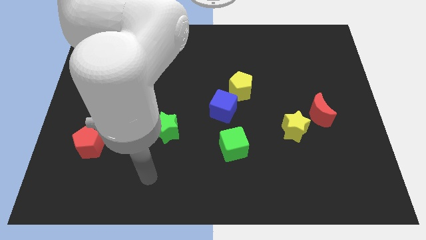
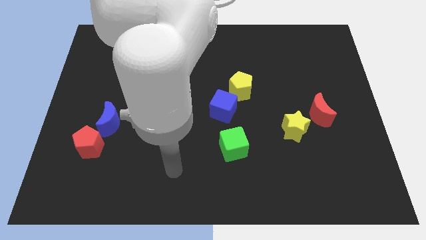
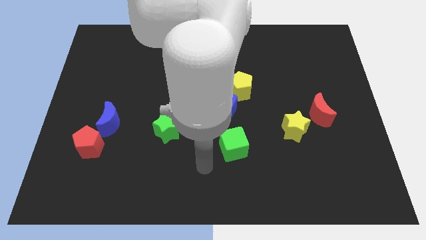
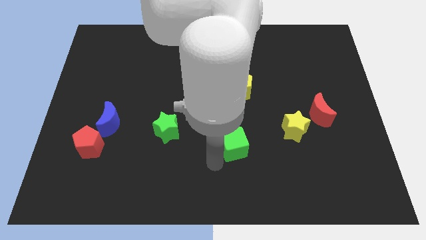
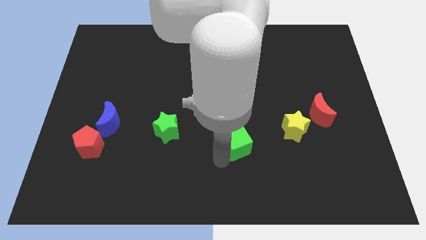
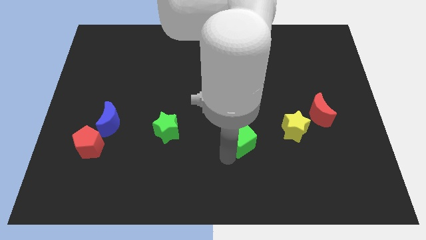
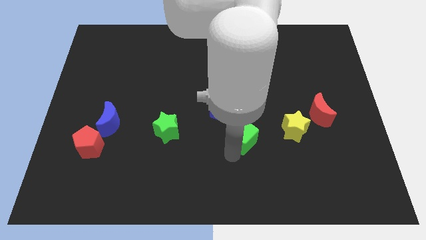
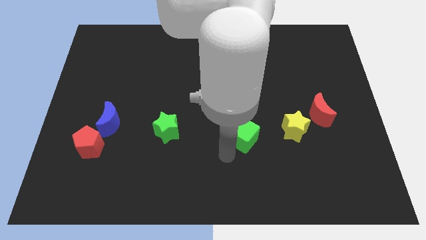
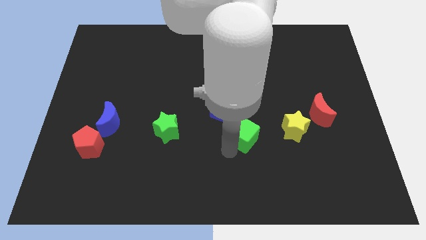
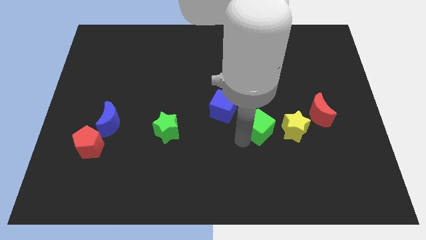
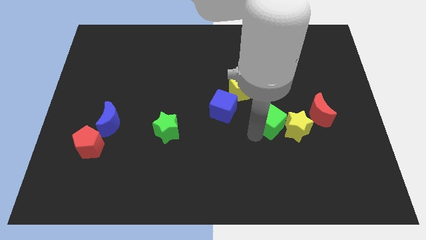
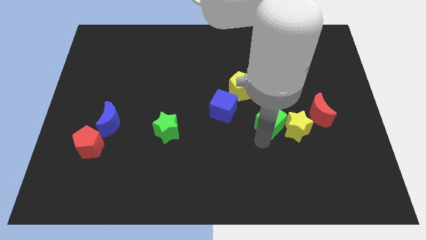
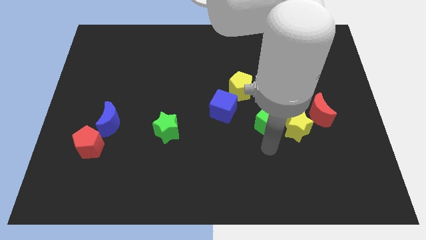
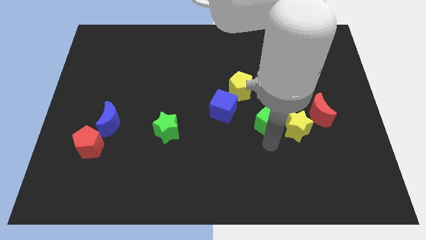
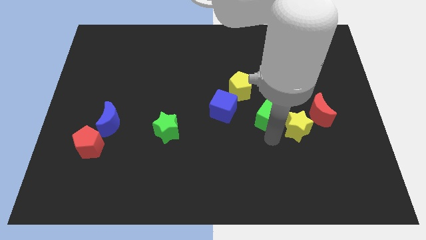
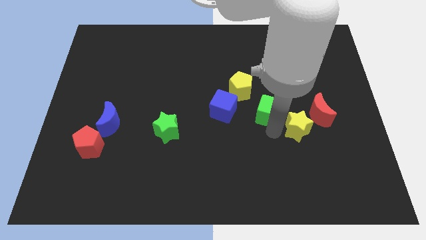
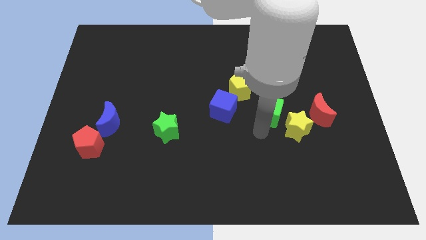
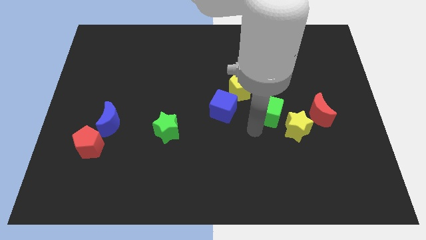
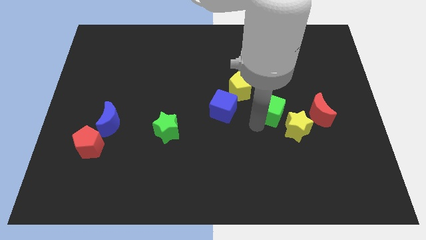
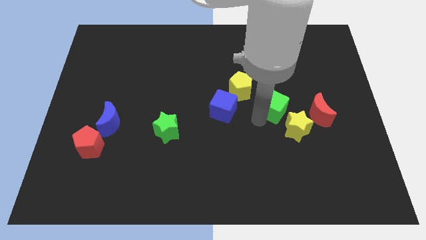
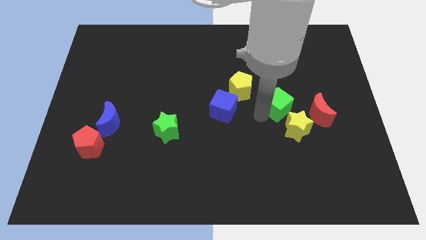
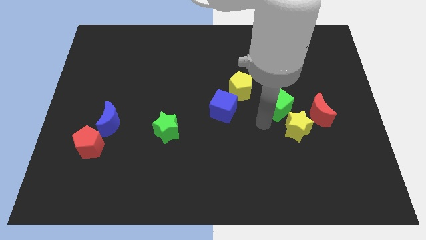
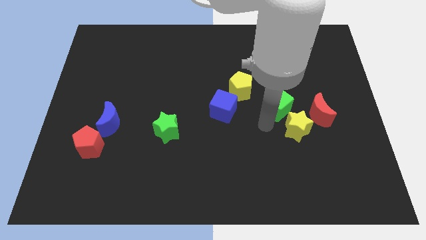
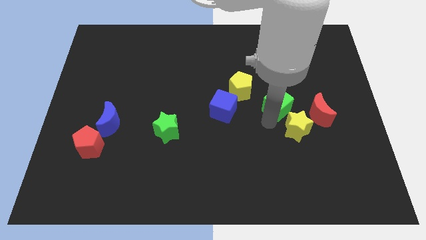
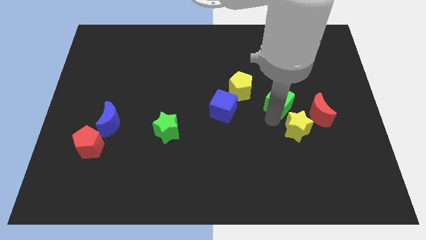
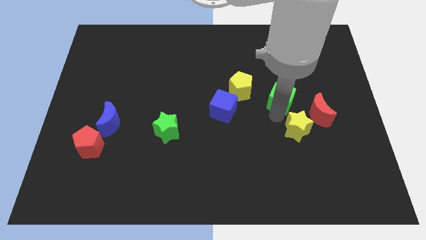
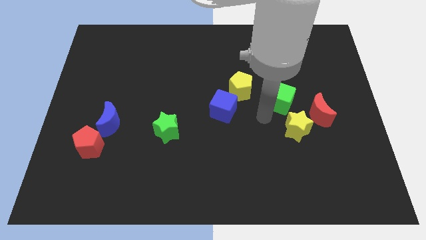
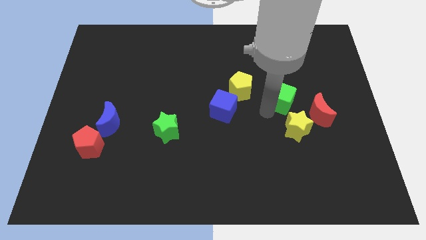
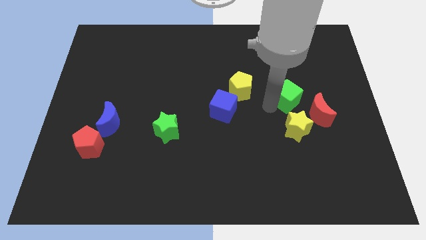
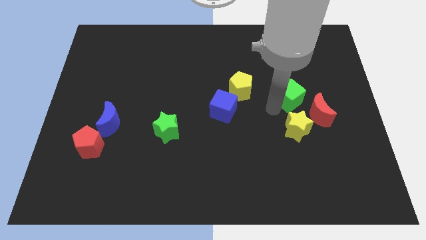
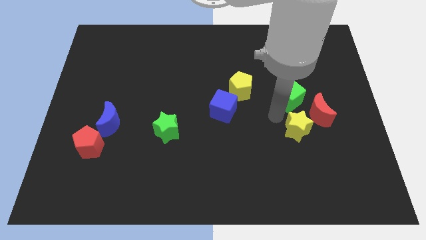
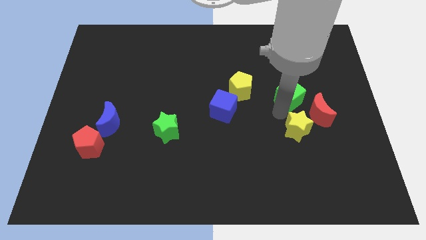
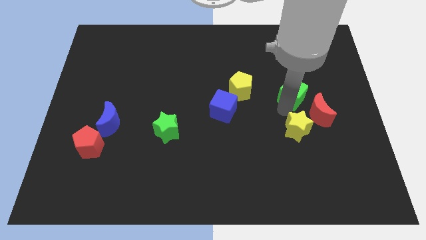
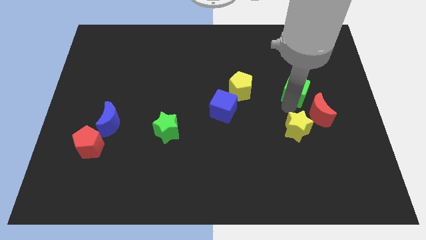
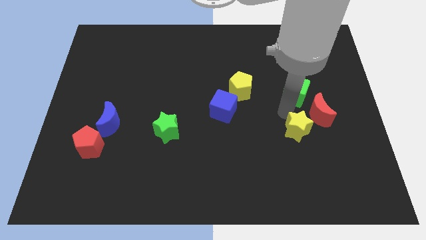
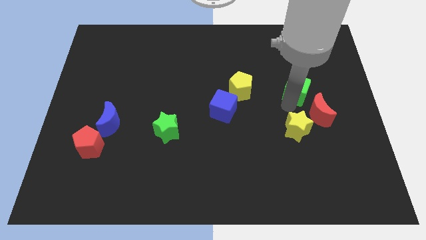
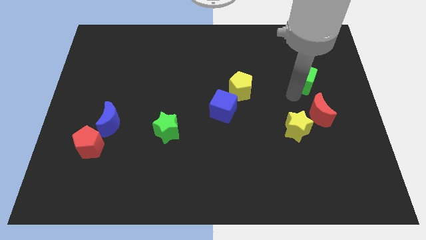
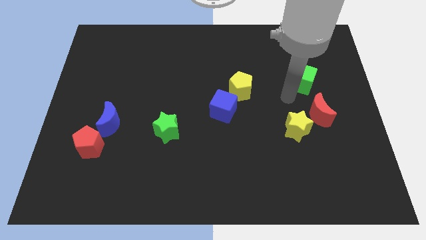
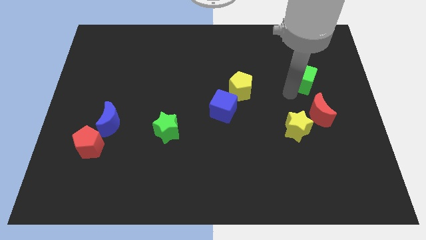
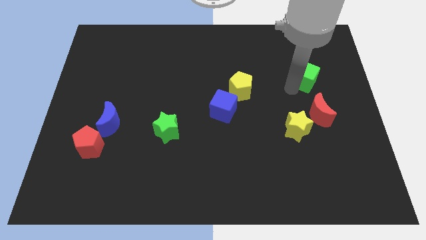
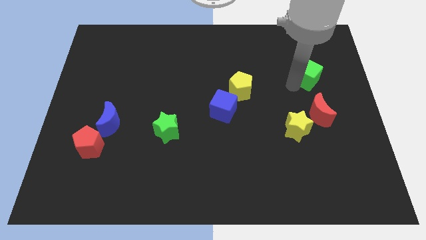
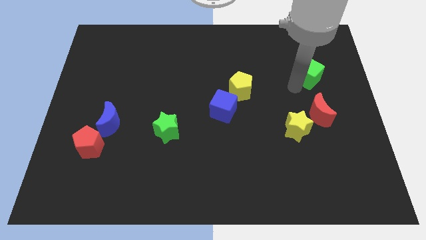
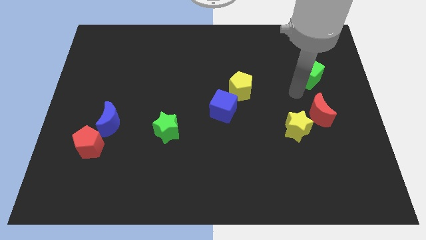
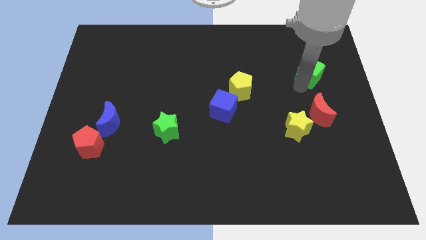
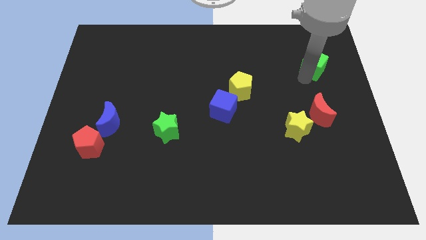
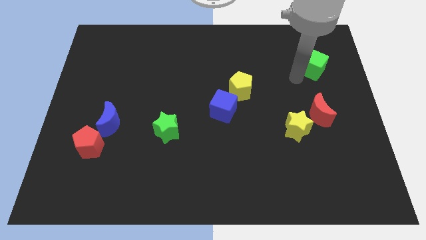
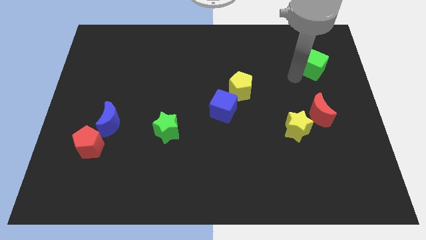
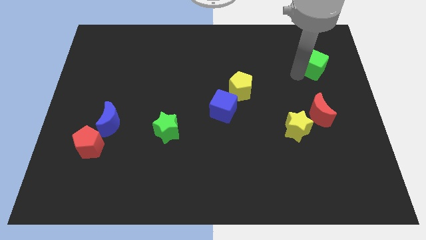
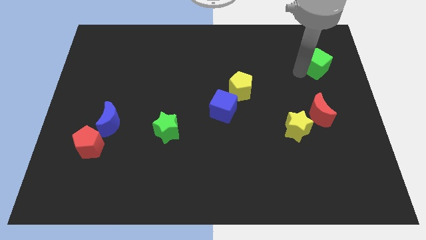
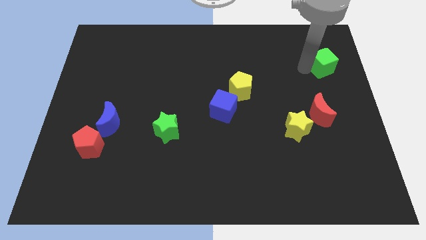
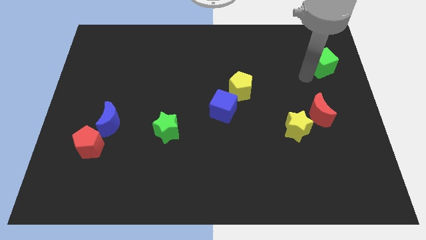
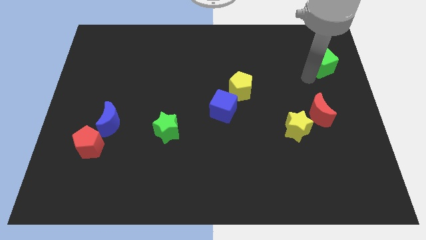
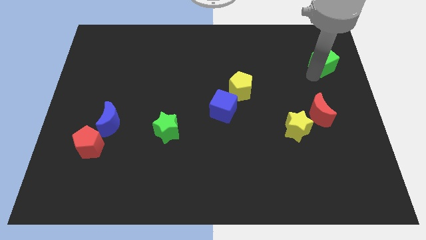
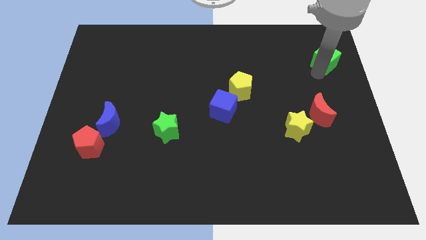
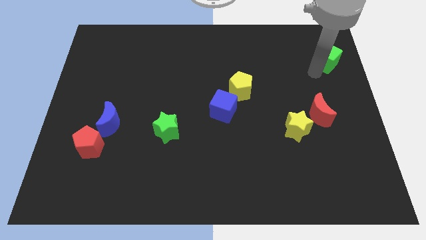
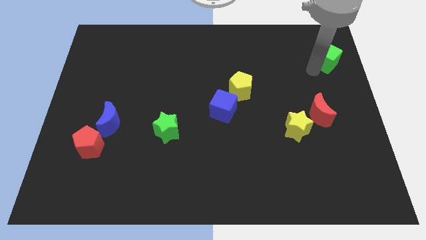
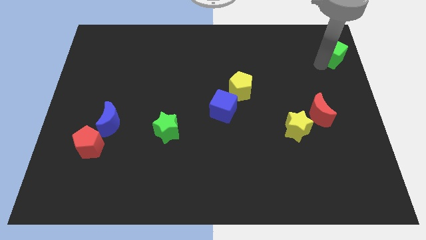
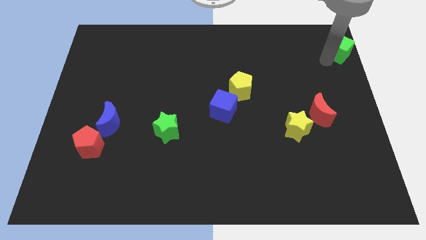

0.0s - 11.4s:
move the green cube to the upper right corner

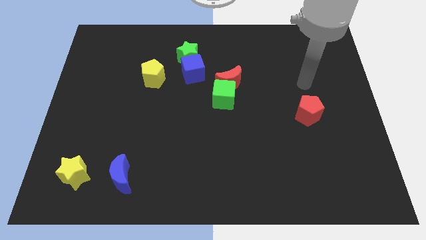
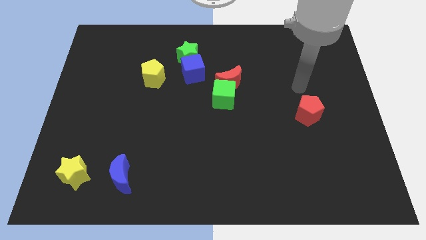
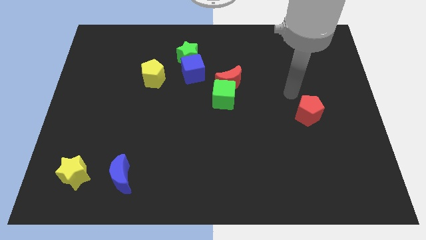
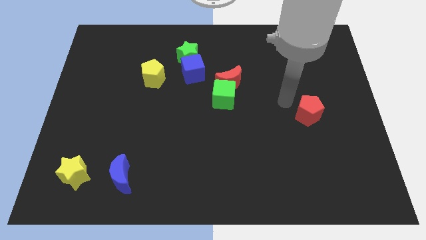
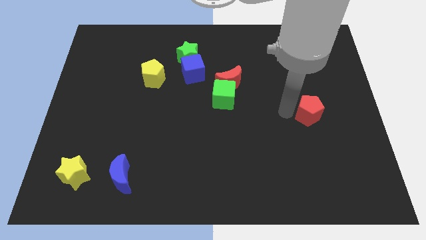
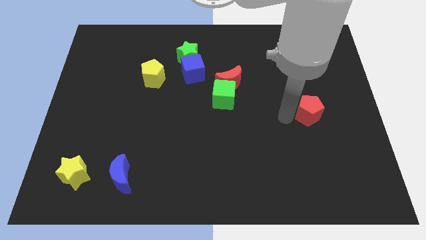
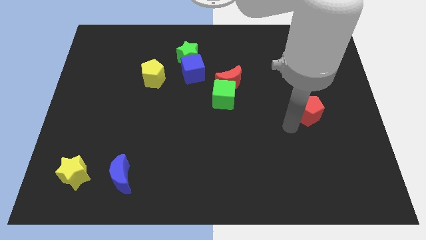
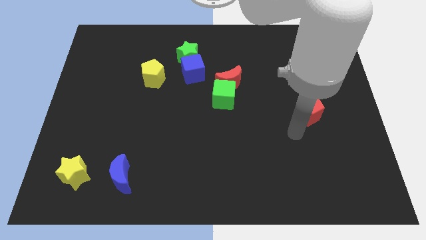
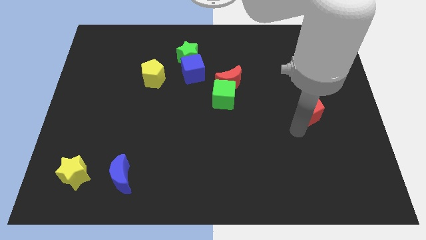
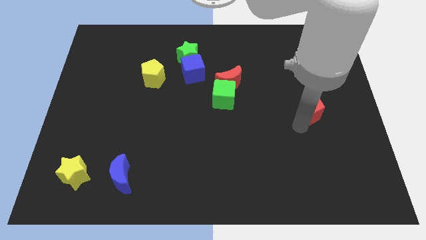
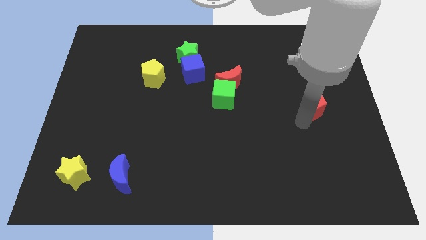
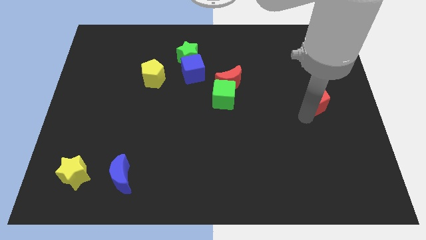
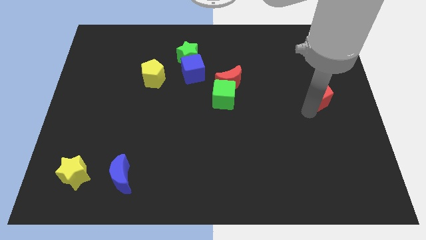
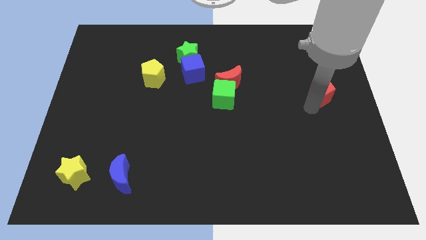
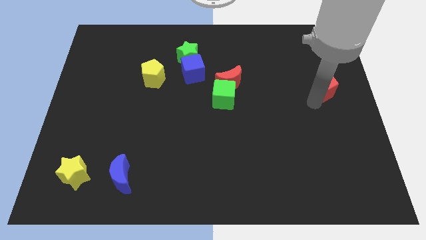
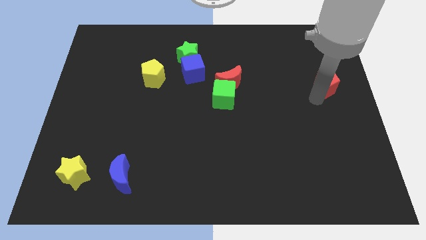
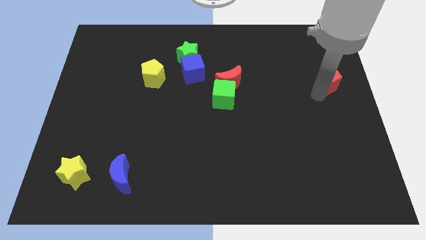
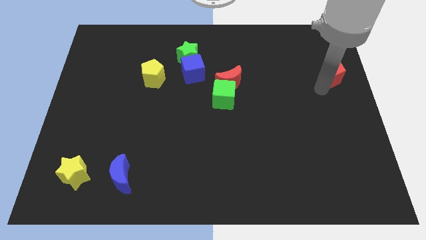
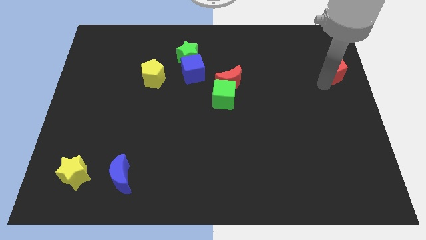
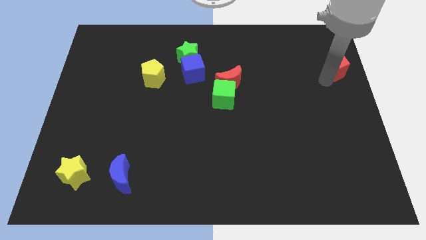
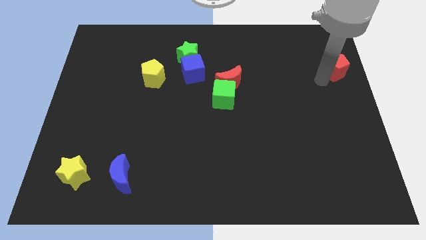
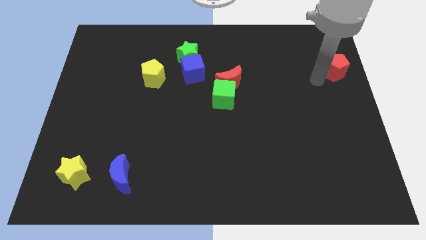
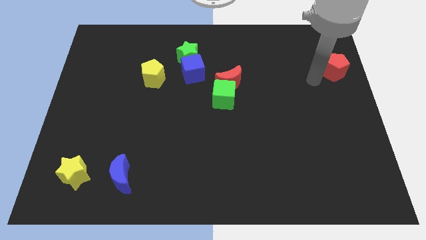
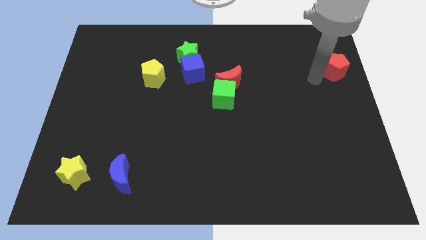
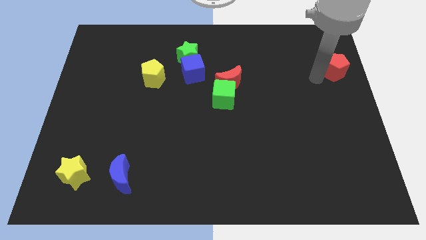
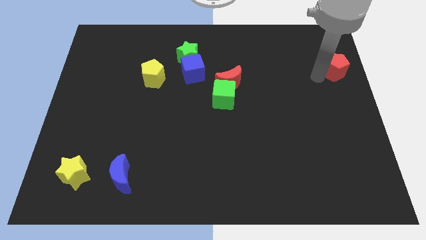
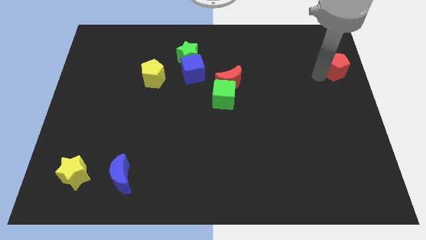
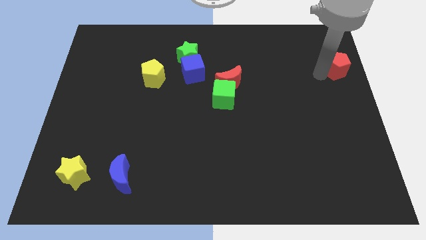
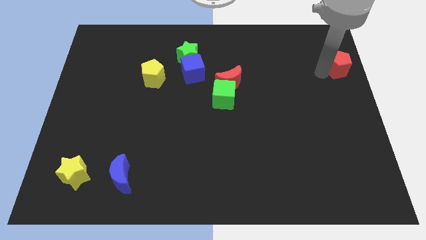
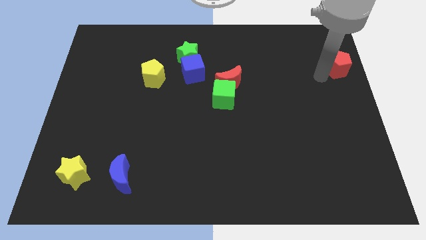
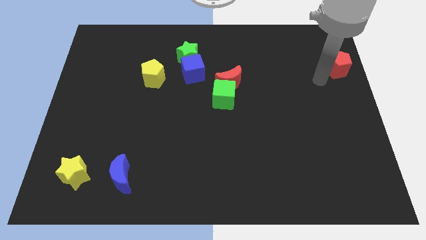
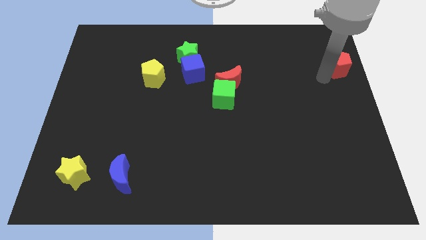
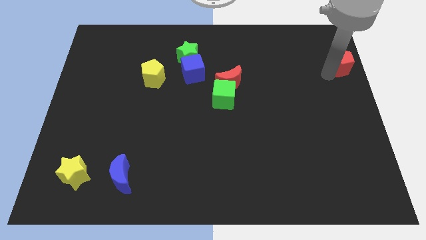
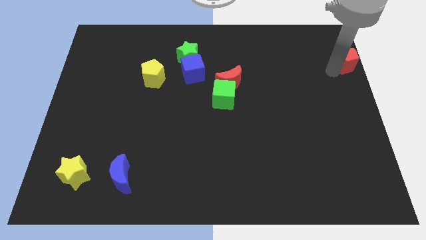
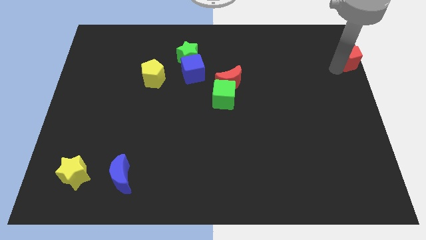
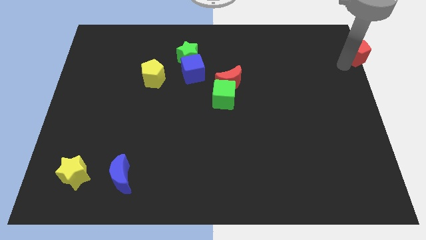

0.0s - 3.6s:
put the red pentagon to the top right
